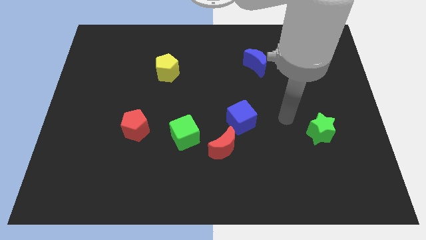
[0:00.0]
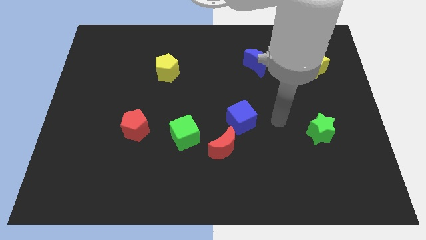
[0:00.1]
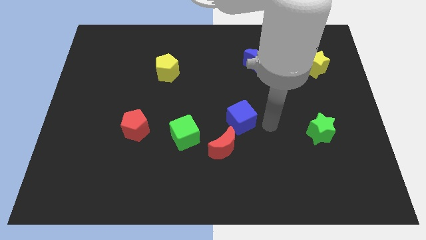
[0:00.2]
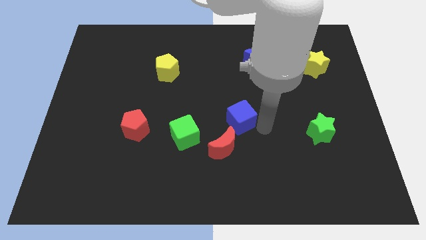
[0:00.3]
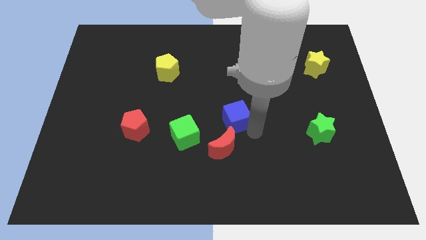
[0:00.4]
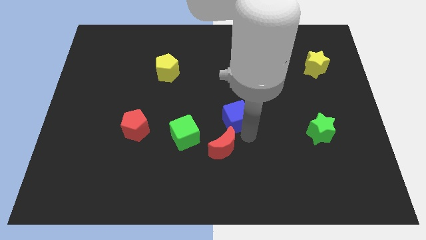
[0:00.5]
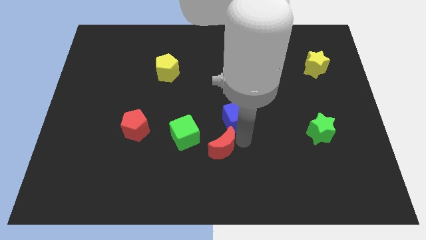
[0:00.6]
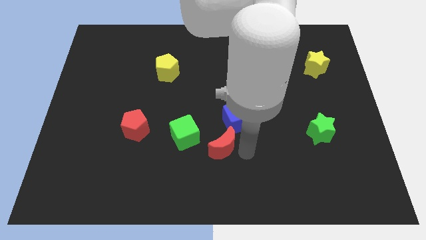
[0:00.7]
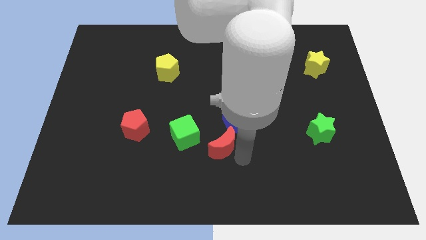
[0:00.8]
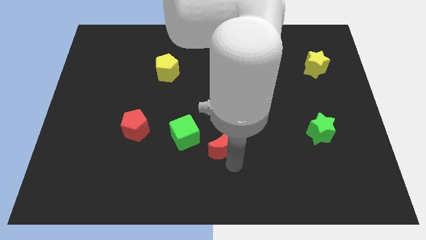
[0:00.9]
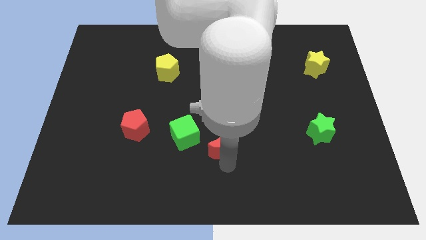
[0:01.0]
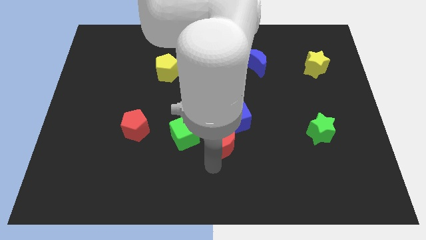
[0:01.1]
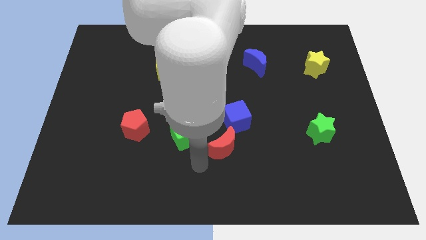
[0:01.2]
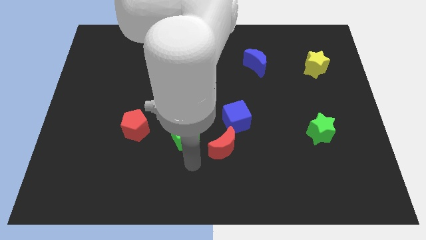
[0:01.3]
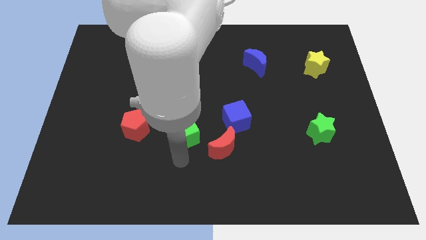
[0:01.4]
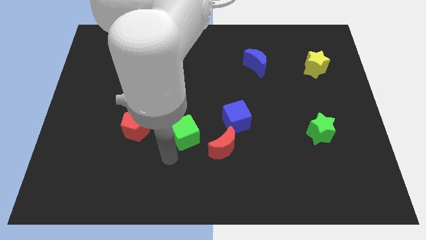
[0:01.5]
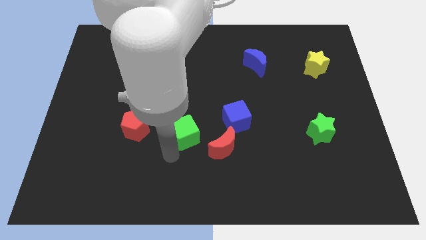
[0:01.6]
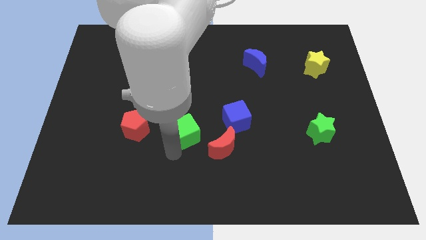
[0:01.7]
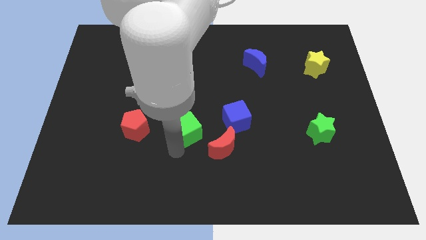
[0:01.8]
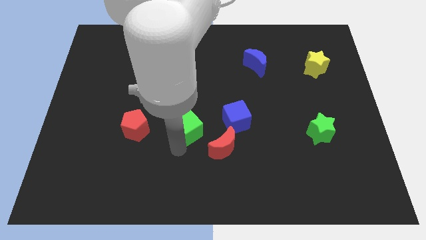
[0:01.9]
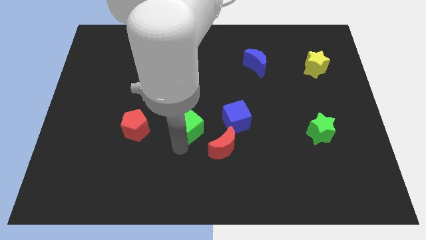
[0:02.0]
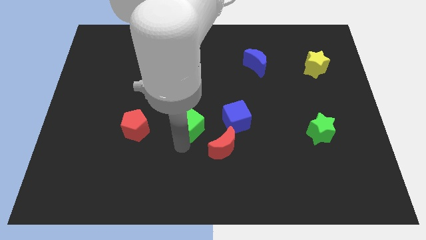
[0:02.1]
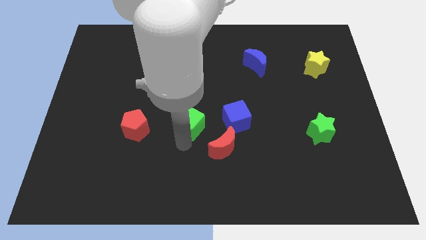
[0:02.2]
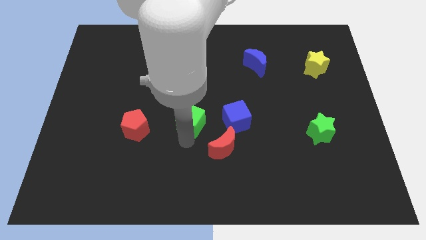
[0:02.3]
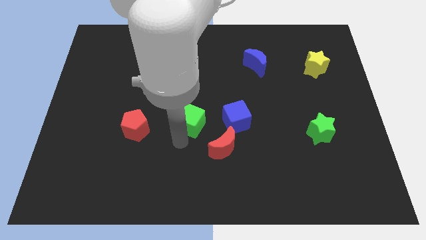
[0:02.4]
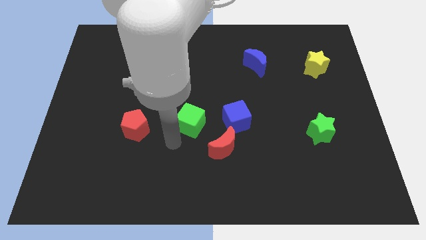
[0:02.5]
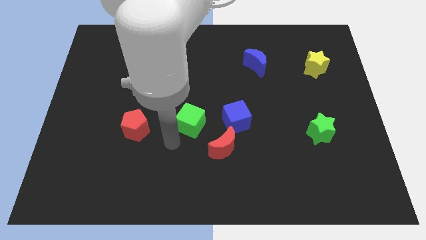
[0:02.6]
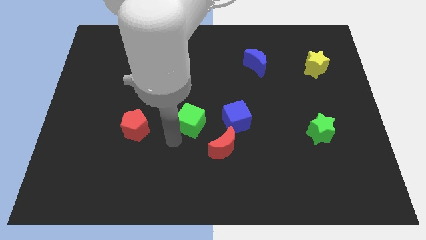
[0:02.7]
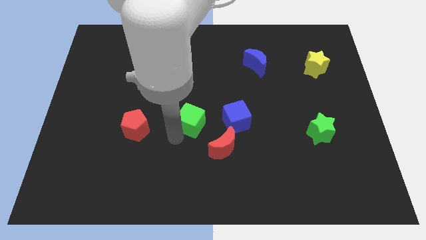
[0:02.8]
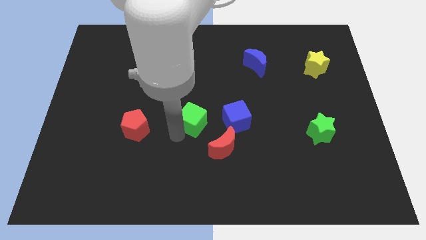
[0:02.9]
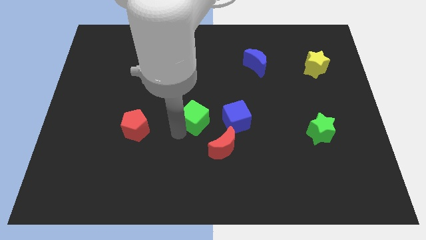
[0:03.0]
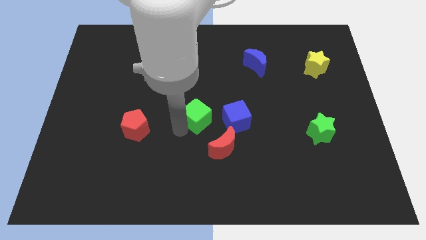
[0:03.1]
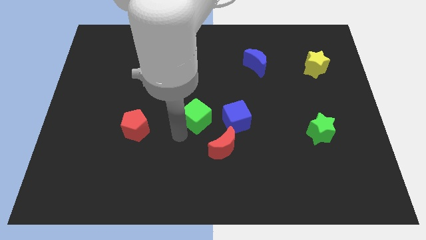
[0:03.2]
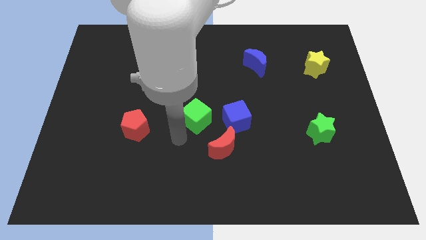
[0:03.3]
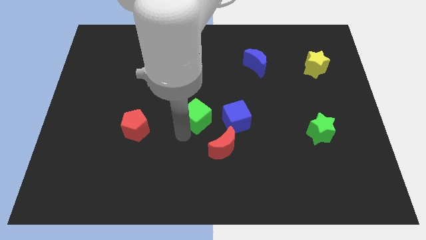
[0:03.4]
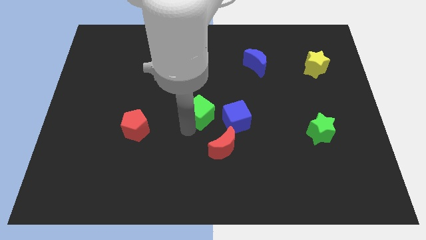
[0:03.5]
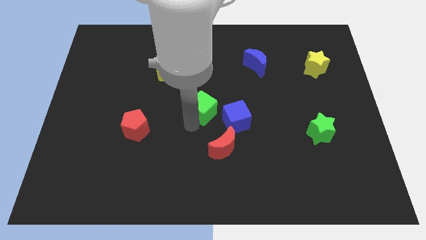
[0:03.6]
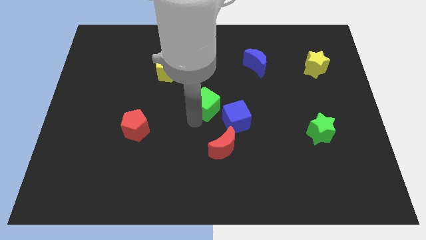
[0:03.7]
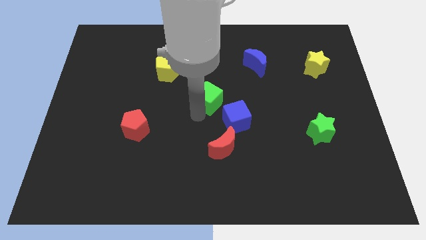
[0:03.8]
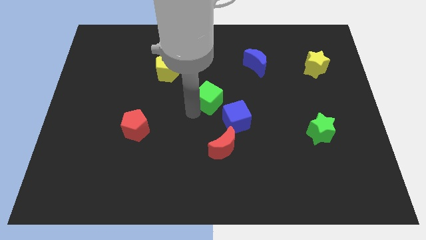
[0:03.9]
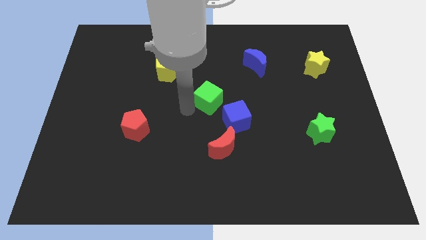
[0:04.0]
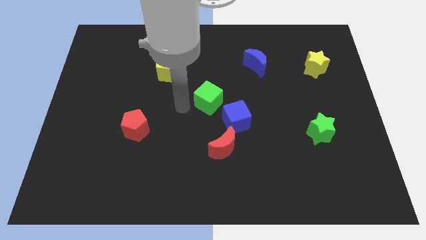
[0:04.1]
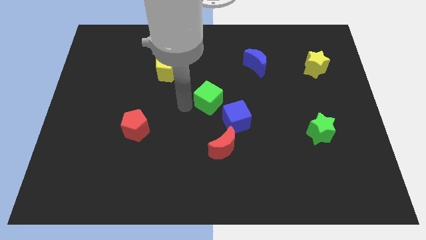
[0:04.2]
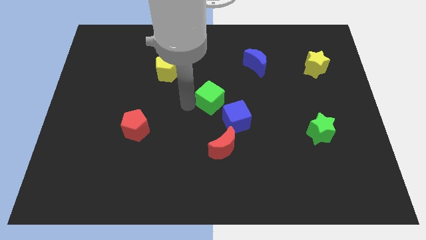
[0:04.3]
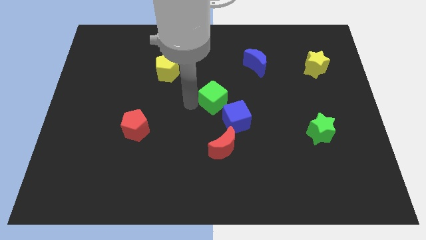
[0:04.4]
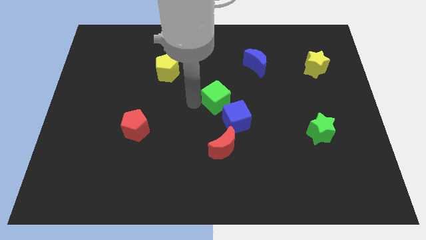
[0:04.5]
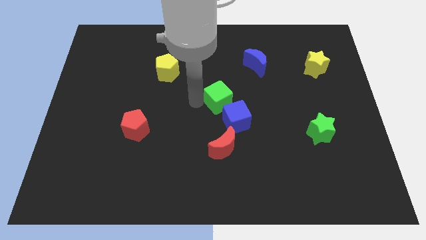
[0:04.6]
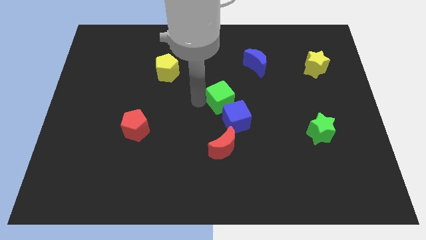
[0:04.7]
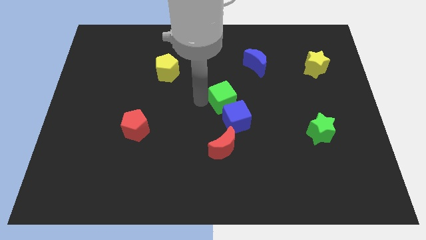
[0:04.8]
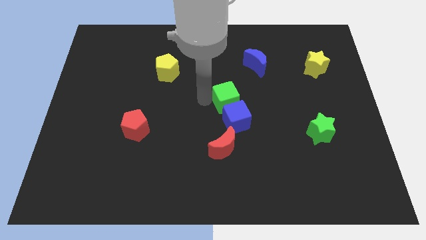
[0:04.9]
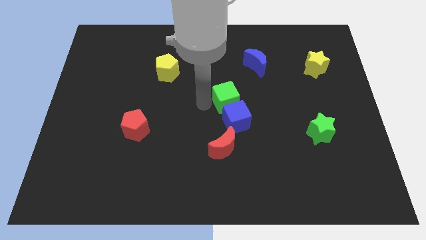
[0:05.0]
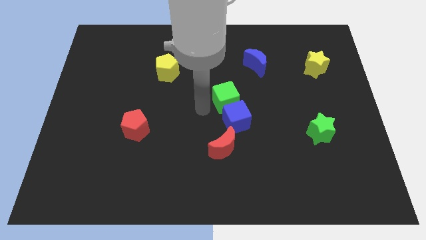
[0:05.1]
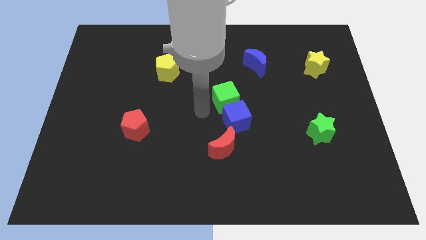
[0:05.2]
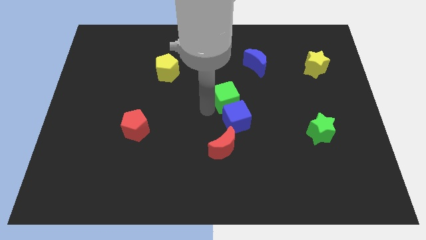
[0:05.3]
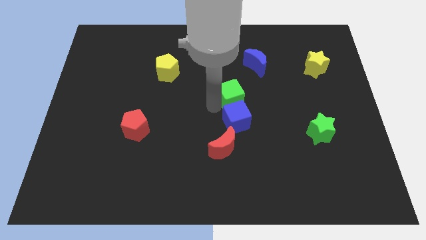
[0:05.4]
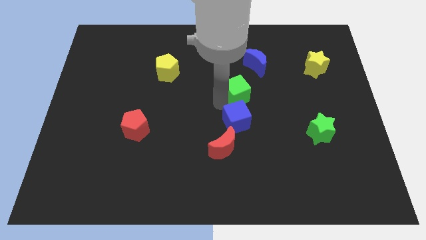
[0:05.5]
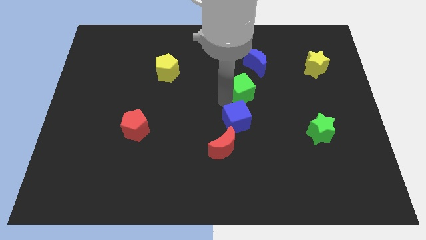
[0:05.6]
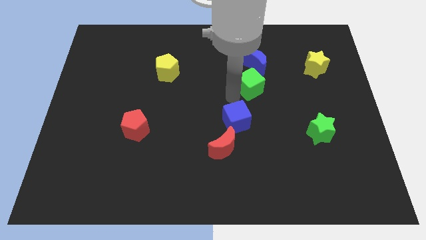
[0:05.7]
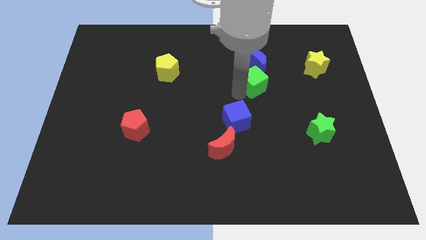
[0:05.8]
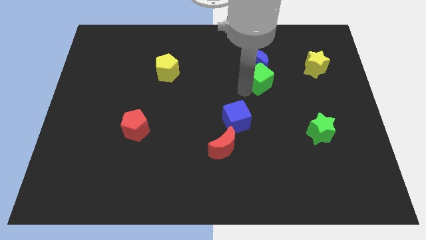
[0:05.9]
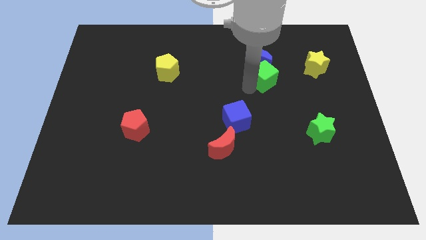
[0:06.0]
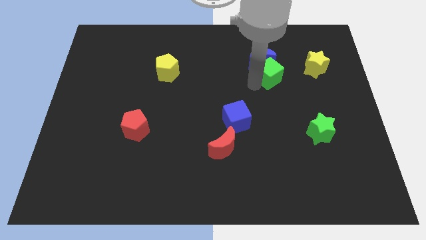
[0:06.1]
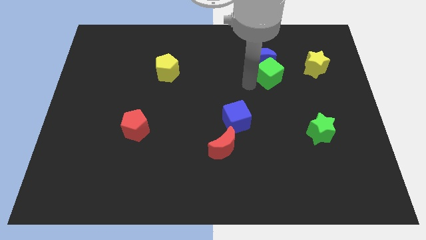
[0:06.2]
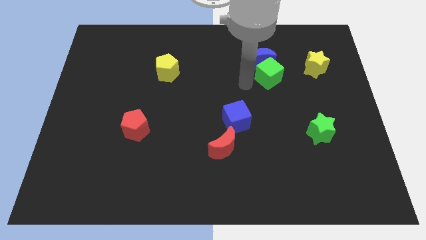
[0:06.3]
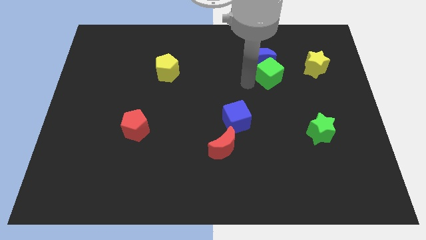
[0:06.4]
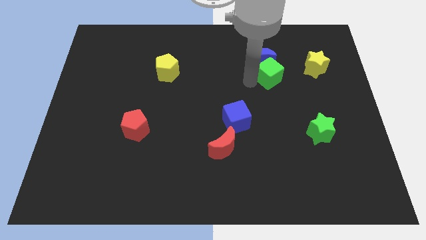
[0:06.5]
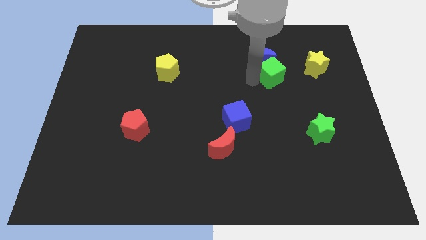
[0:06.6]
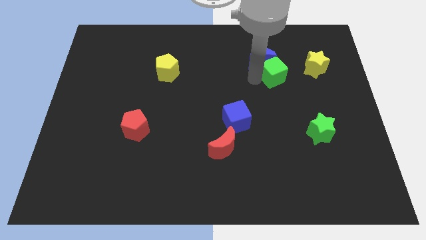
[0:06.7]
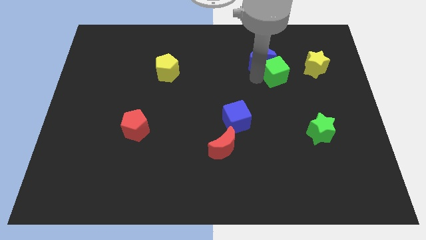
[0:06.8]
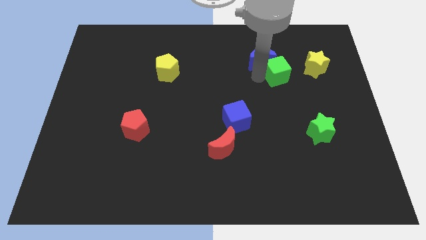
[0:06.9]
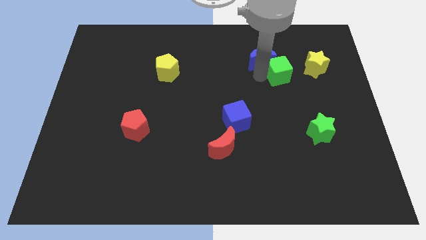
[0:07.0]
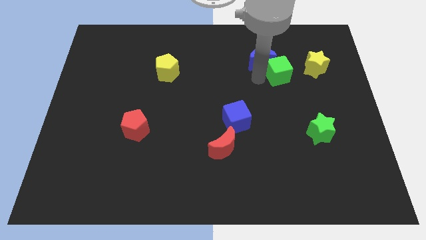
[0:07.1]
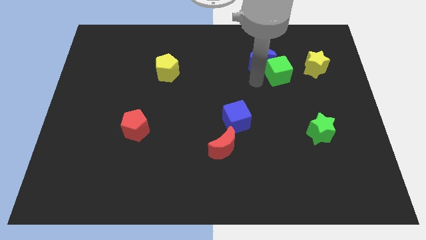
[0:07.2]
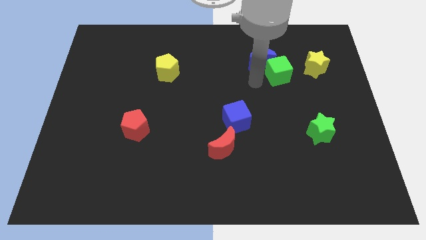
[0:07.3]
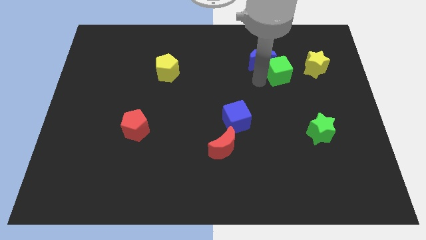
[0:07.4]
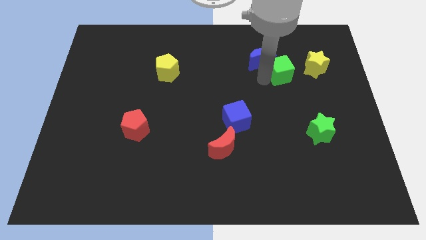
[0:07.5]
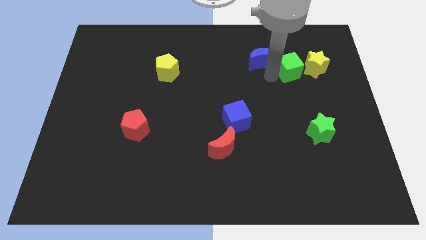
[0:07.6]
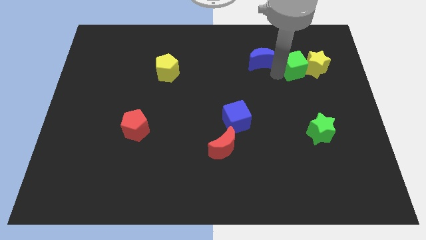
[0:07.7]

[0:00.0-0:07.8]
put the green cube next to the yellow star
